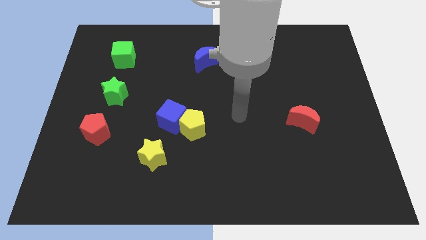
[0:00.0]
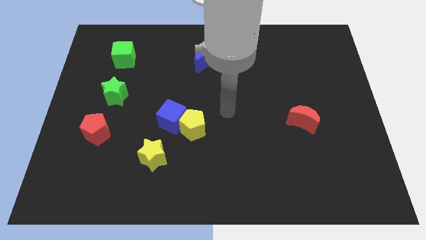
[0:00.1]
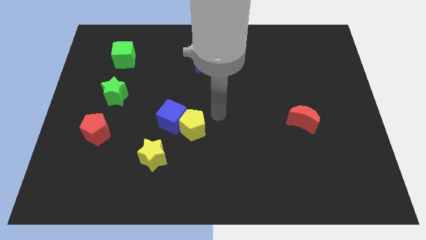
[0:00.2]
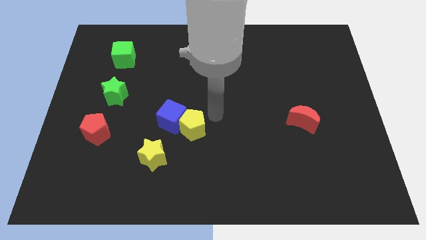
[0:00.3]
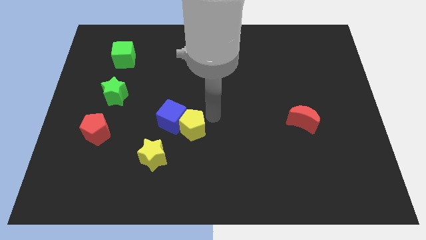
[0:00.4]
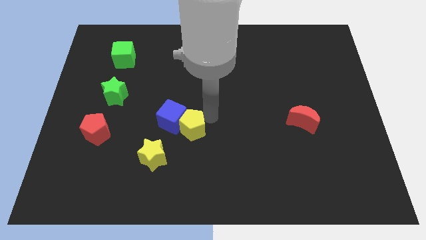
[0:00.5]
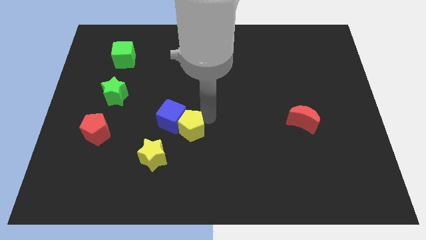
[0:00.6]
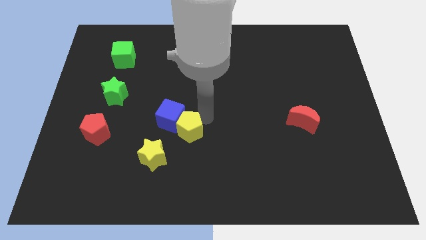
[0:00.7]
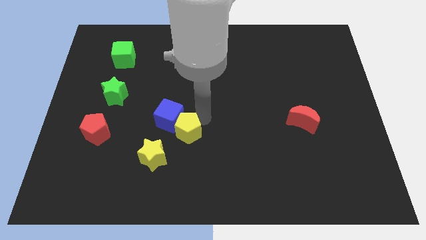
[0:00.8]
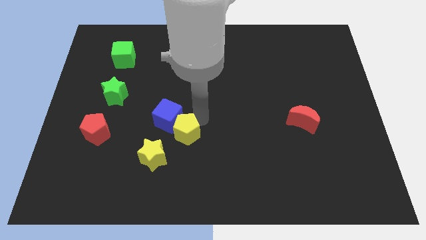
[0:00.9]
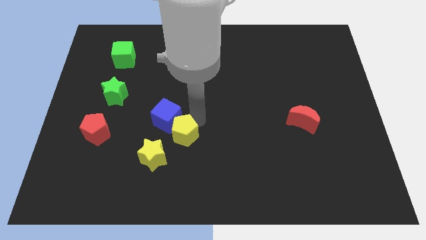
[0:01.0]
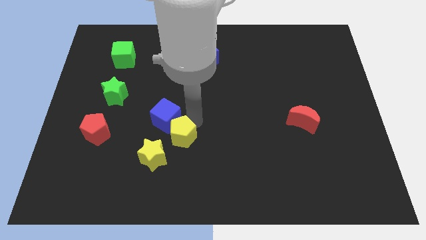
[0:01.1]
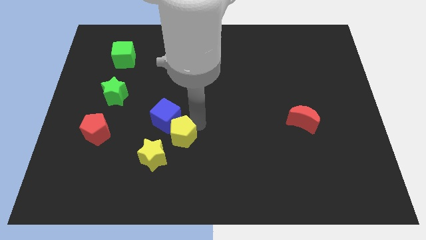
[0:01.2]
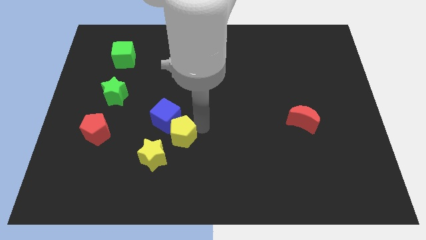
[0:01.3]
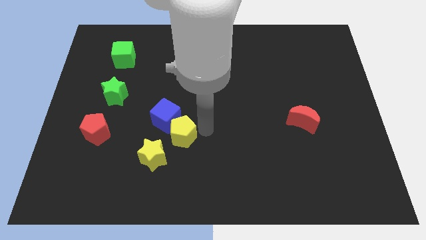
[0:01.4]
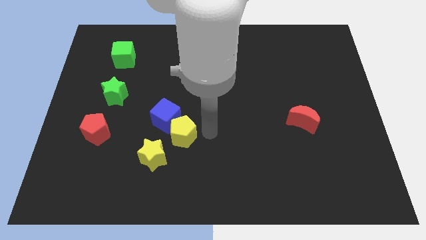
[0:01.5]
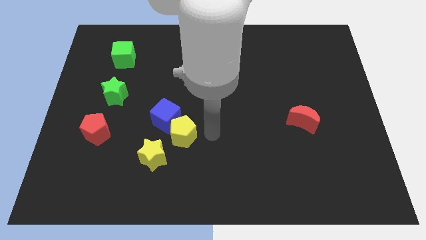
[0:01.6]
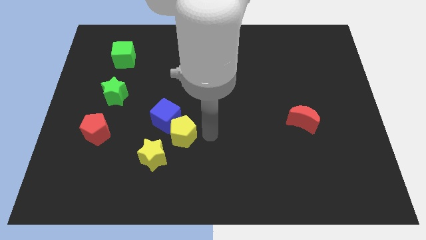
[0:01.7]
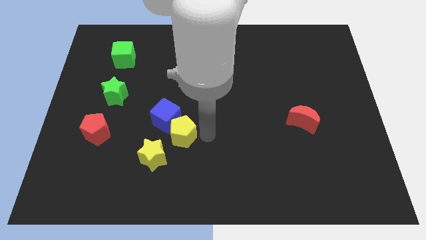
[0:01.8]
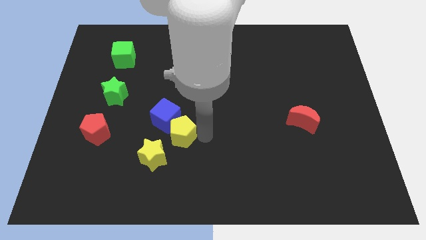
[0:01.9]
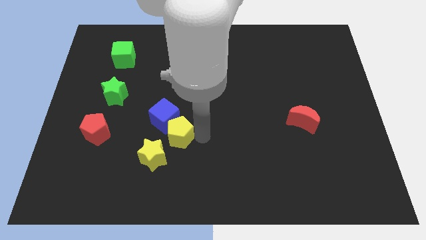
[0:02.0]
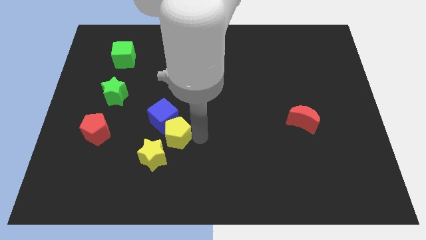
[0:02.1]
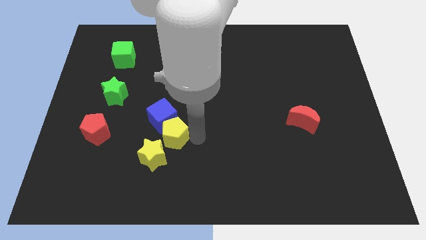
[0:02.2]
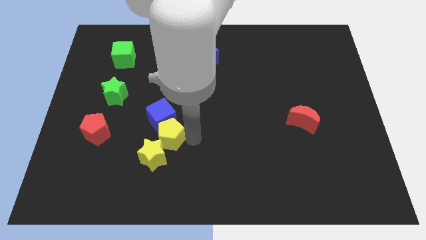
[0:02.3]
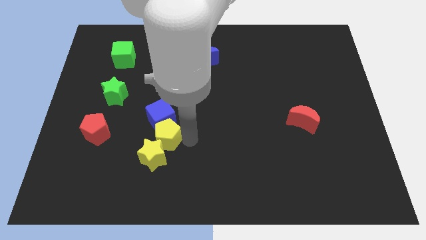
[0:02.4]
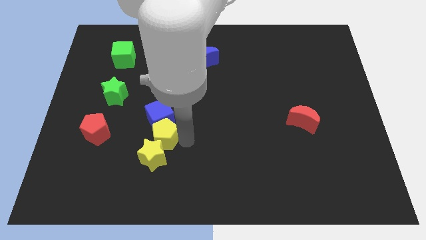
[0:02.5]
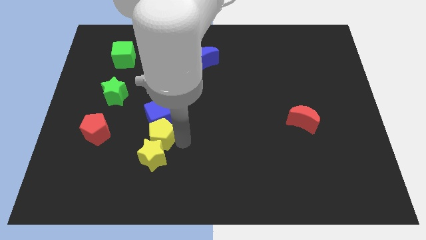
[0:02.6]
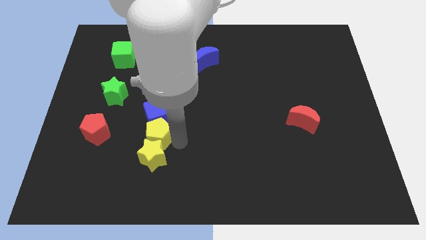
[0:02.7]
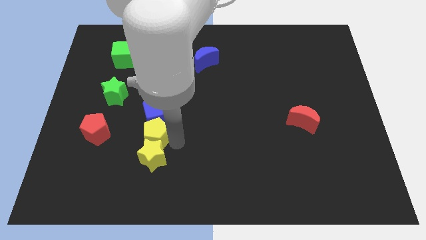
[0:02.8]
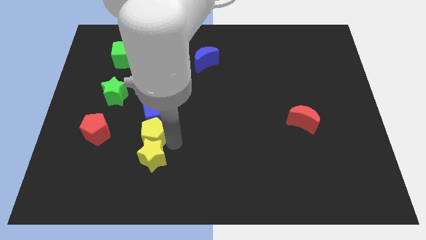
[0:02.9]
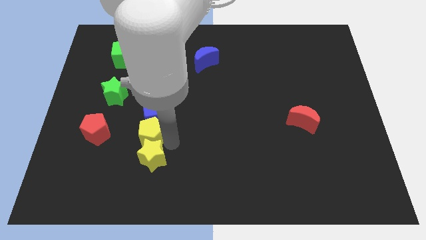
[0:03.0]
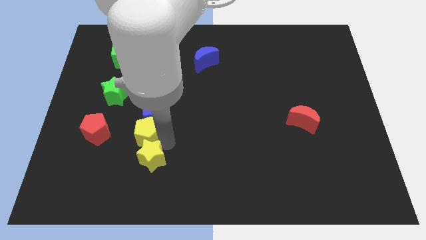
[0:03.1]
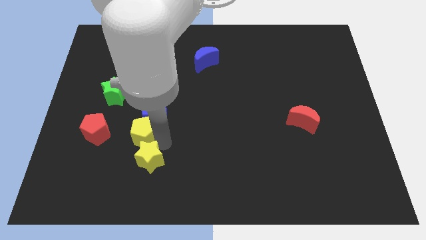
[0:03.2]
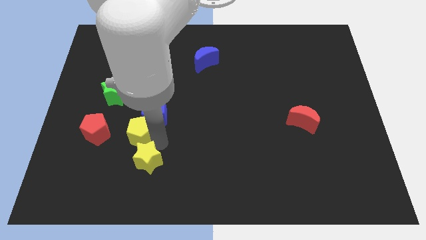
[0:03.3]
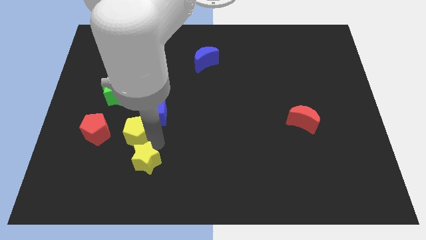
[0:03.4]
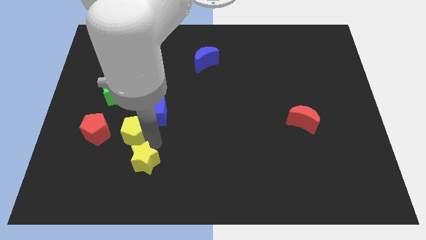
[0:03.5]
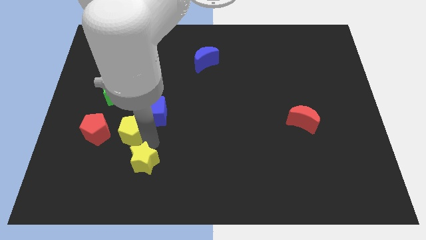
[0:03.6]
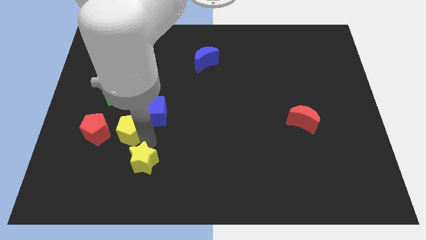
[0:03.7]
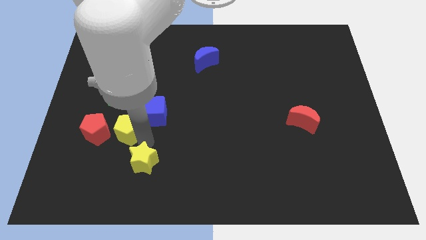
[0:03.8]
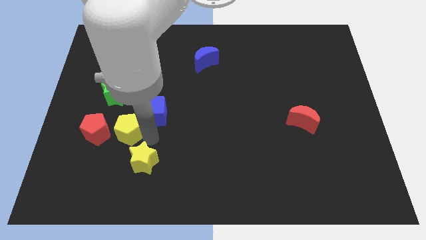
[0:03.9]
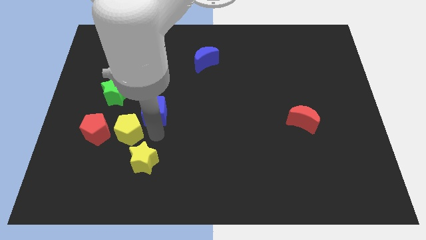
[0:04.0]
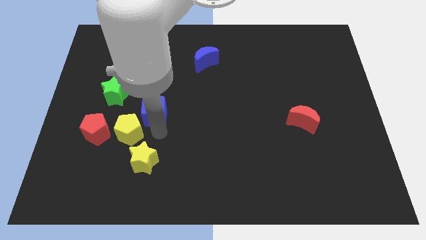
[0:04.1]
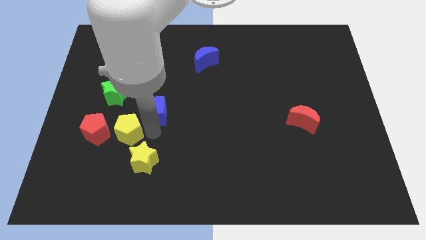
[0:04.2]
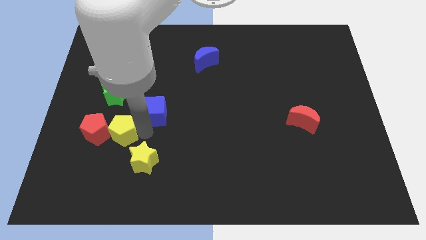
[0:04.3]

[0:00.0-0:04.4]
push the yellow pentagon close to the red pentagon

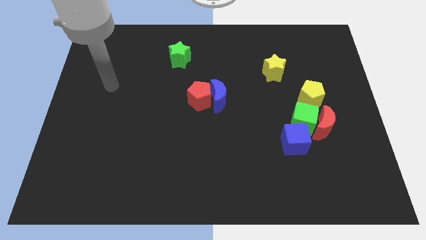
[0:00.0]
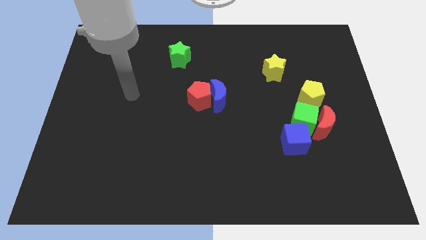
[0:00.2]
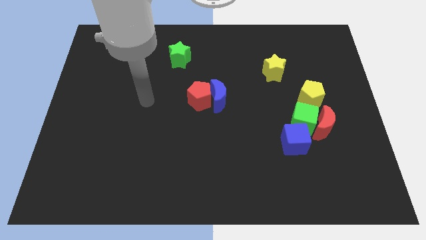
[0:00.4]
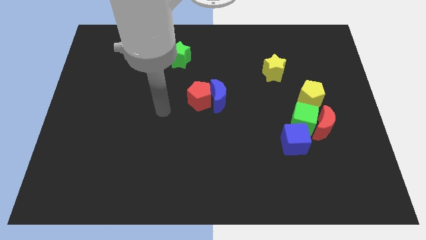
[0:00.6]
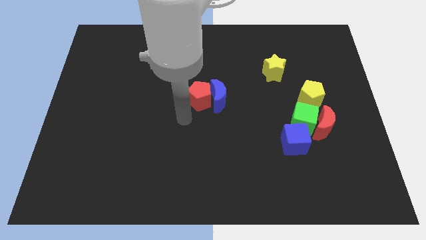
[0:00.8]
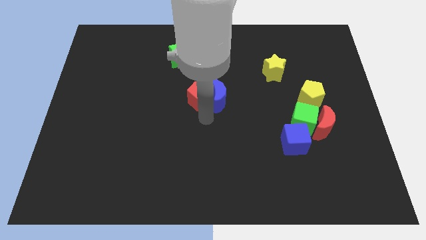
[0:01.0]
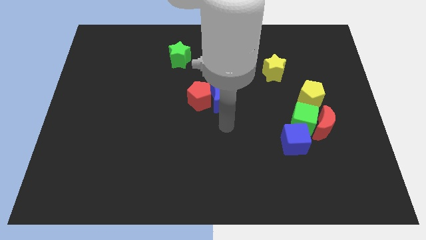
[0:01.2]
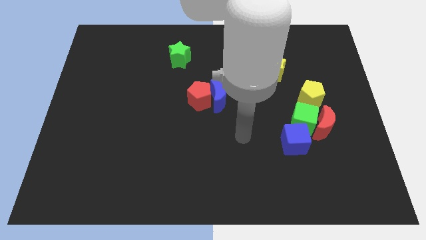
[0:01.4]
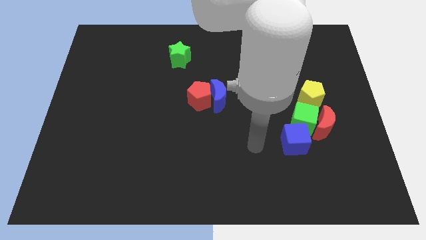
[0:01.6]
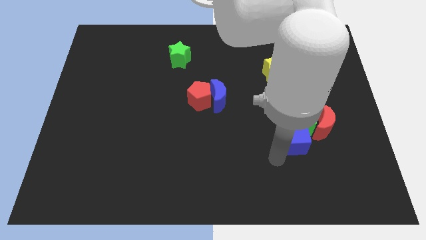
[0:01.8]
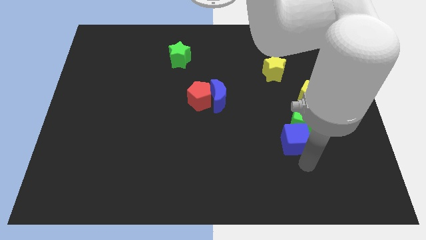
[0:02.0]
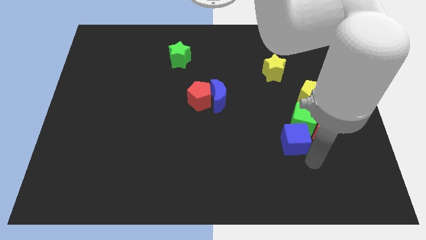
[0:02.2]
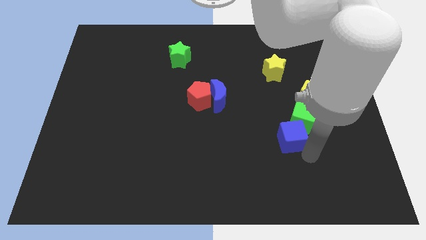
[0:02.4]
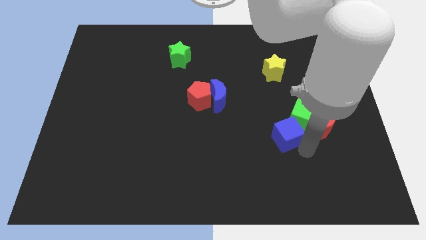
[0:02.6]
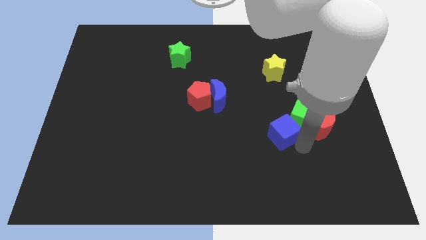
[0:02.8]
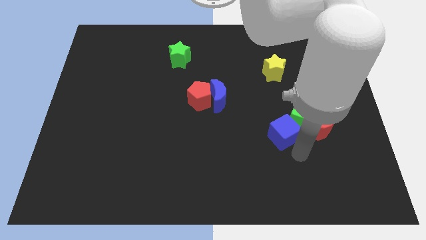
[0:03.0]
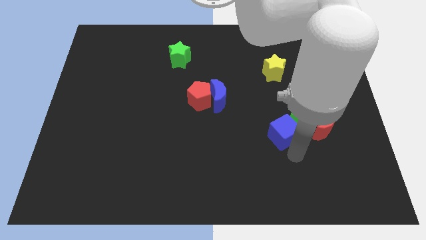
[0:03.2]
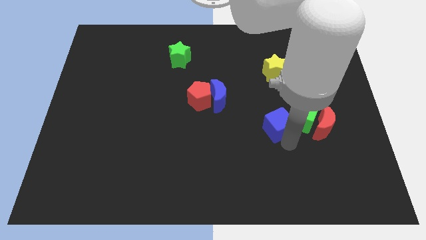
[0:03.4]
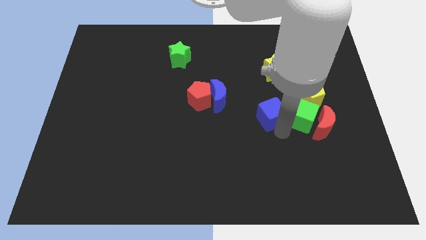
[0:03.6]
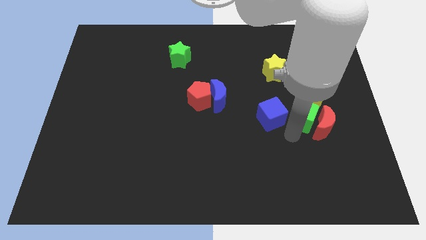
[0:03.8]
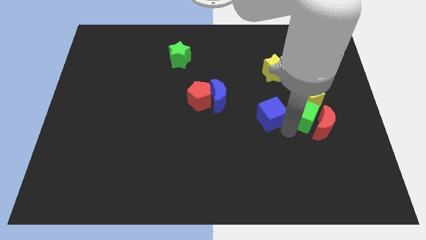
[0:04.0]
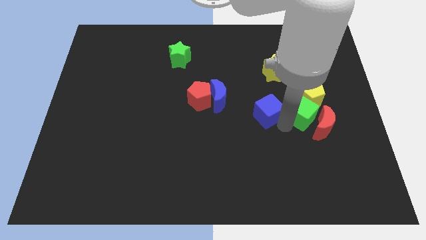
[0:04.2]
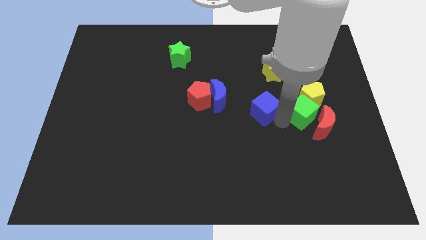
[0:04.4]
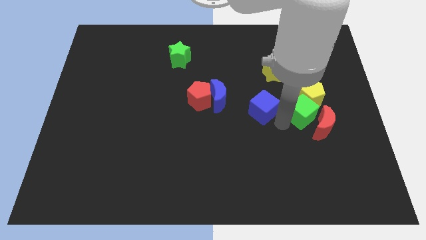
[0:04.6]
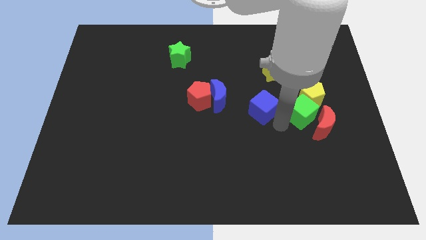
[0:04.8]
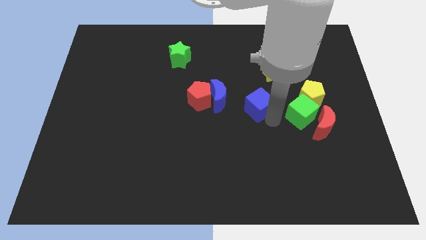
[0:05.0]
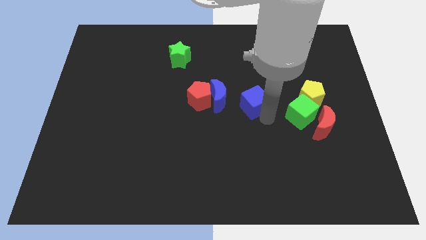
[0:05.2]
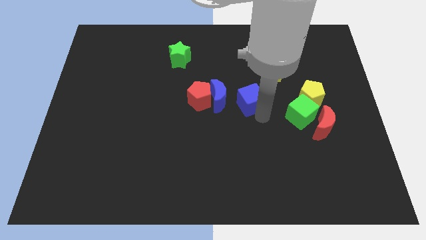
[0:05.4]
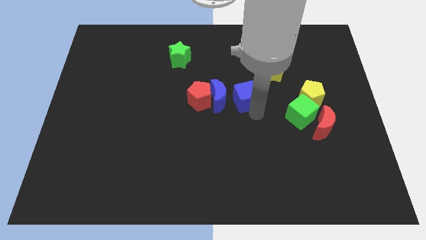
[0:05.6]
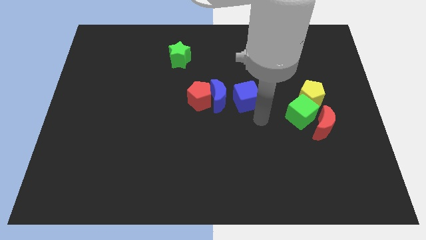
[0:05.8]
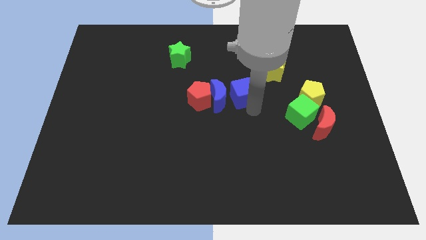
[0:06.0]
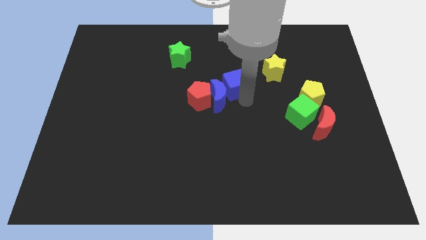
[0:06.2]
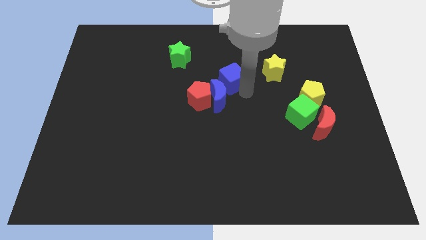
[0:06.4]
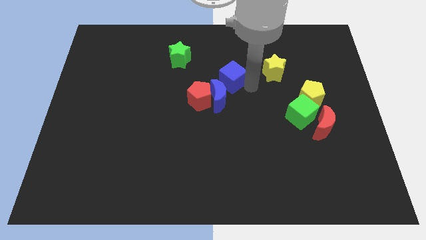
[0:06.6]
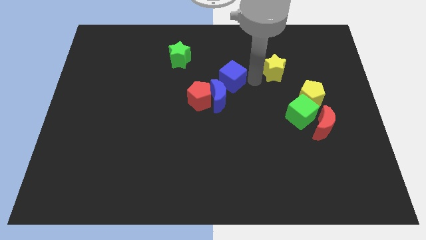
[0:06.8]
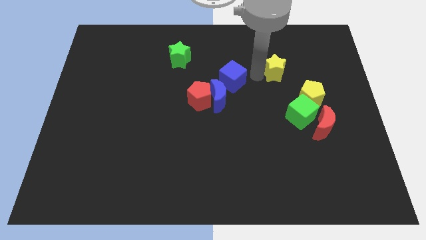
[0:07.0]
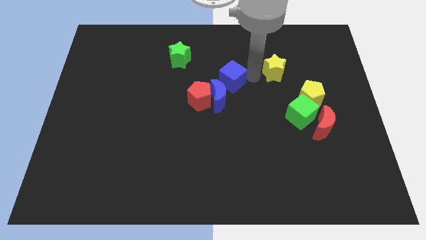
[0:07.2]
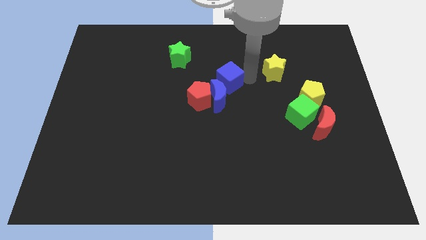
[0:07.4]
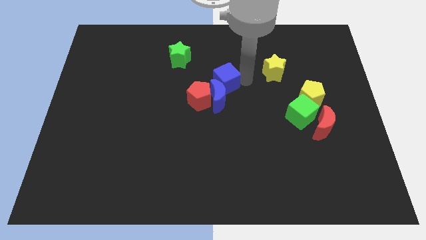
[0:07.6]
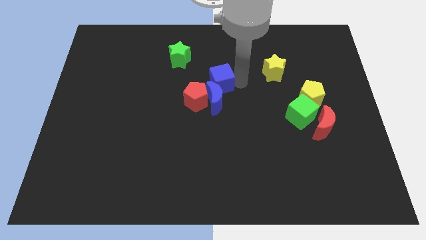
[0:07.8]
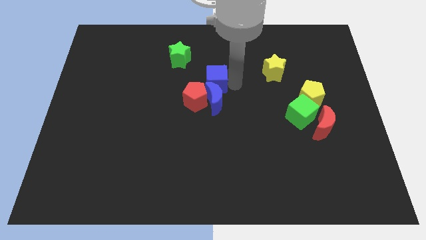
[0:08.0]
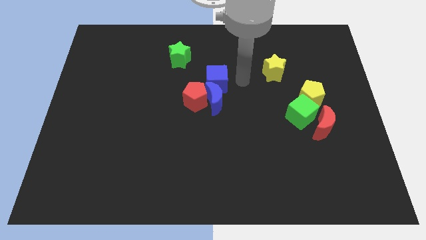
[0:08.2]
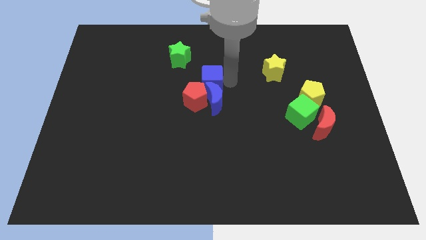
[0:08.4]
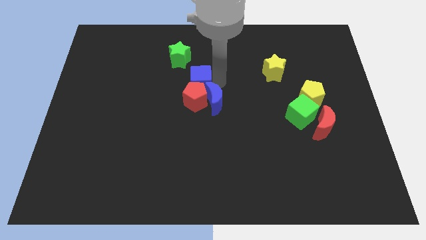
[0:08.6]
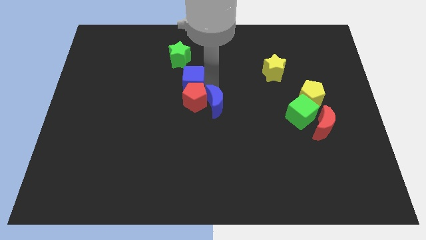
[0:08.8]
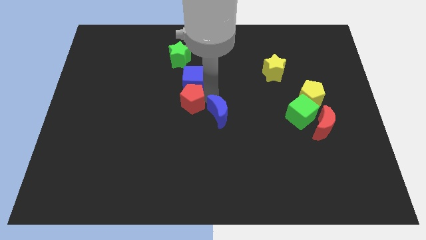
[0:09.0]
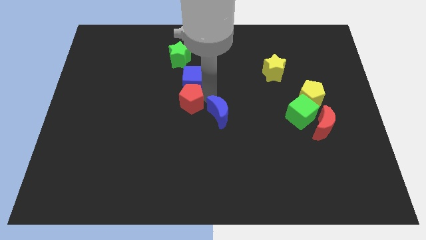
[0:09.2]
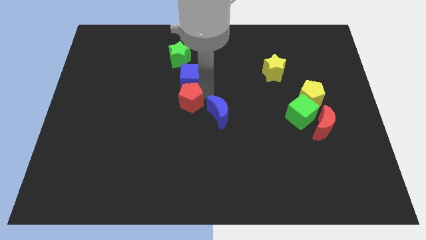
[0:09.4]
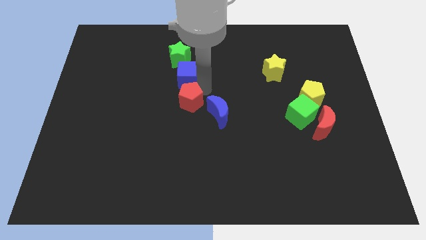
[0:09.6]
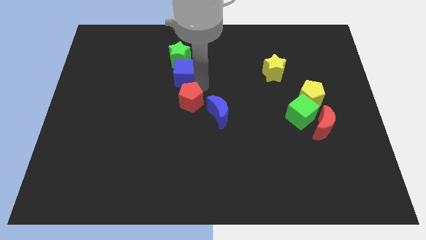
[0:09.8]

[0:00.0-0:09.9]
put the blue cube next to the green star
